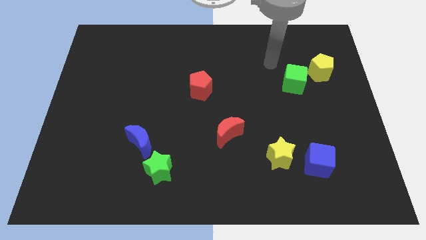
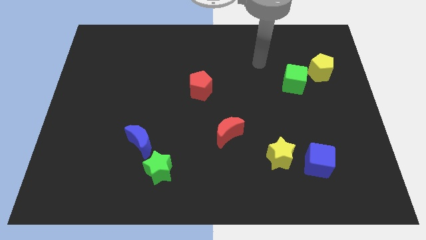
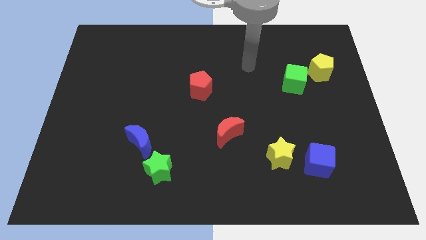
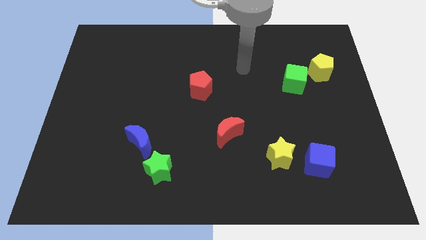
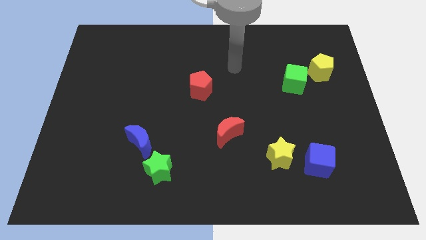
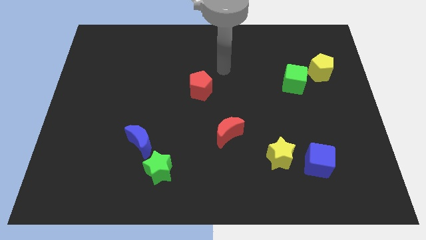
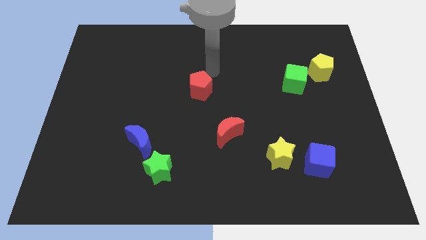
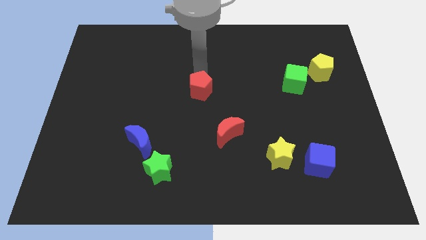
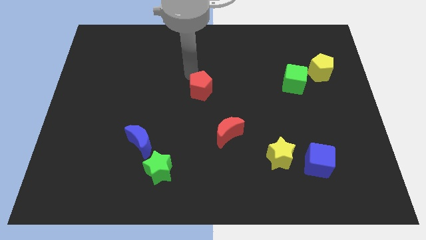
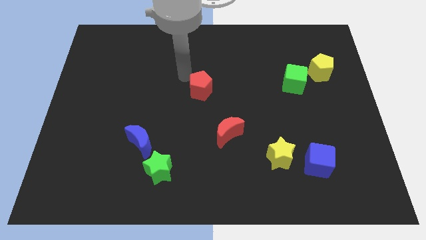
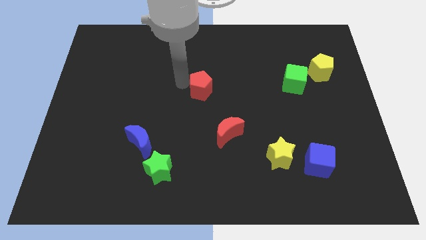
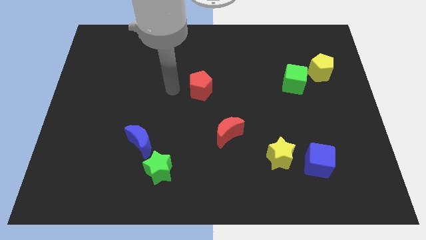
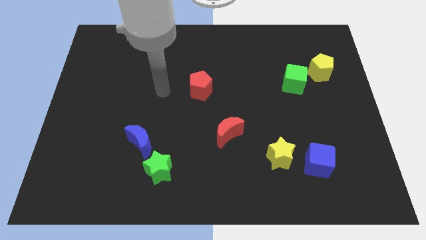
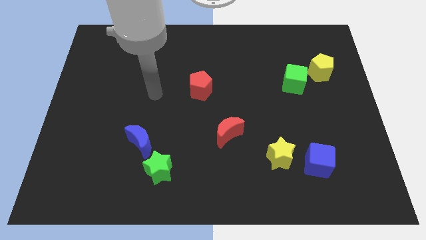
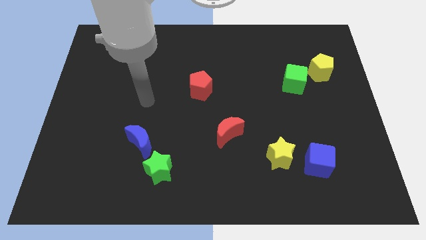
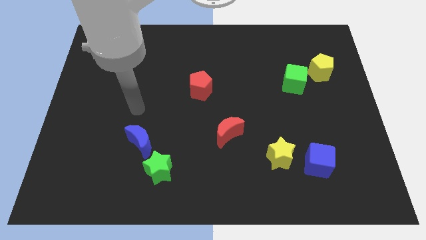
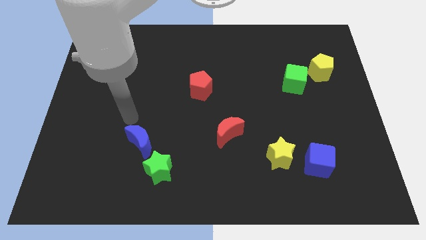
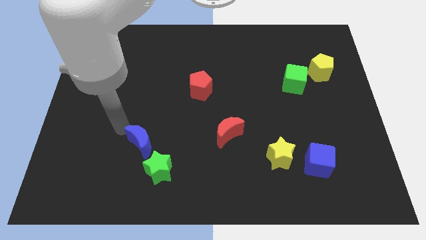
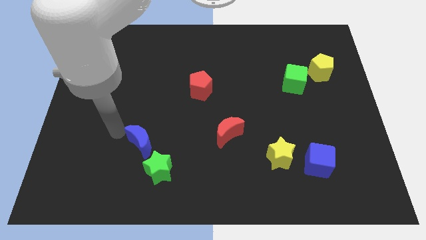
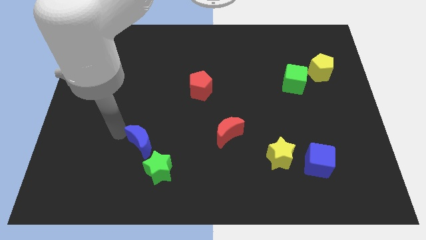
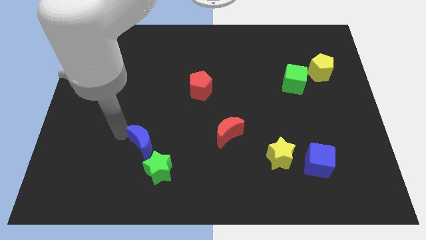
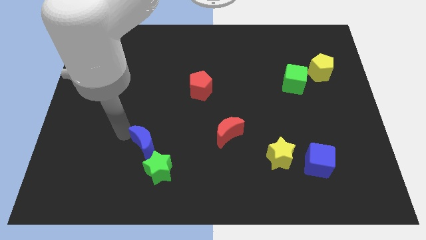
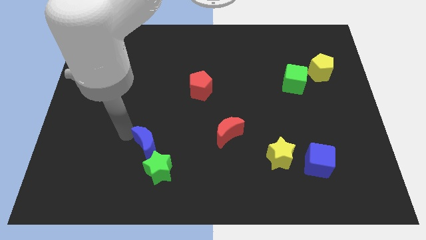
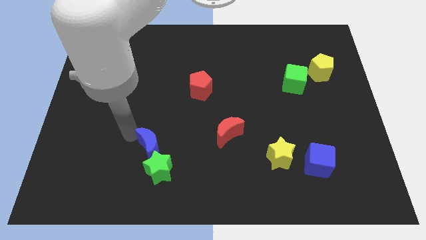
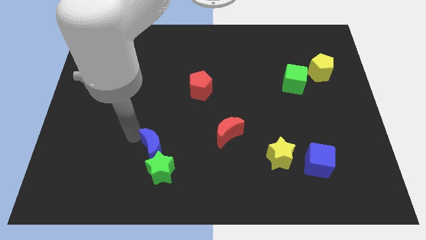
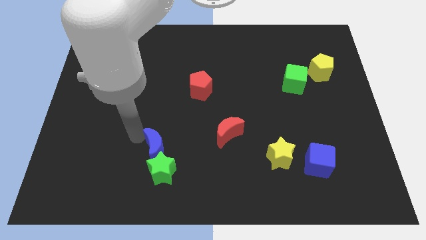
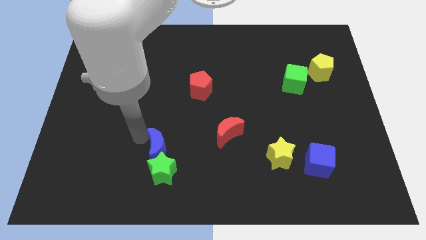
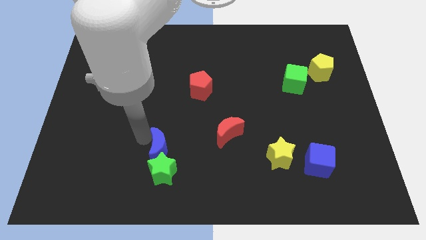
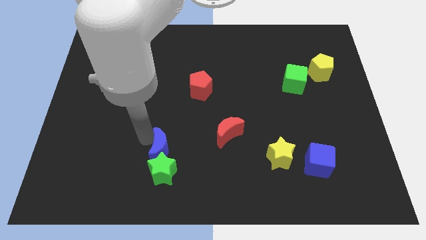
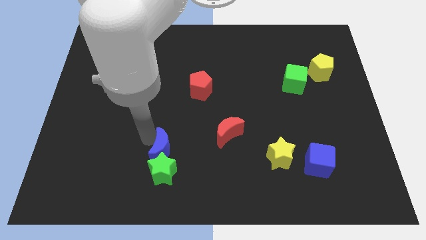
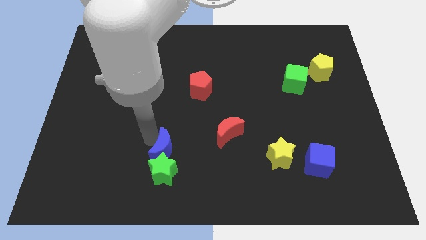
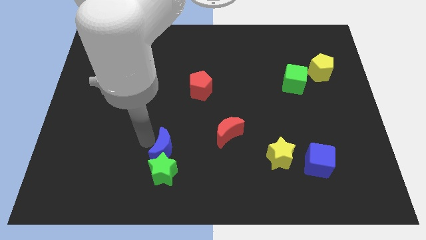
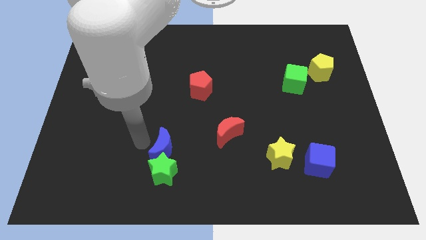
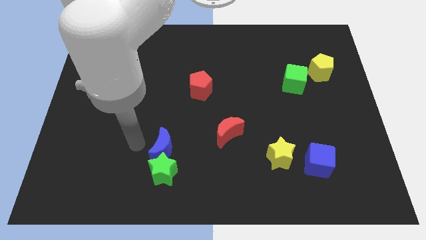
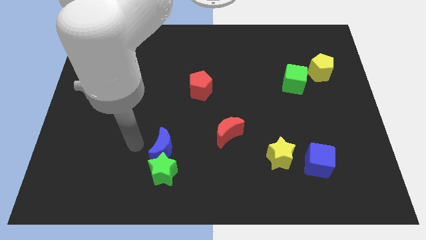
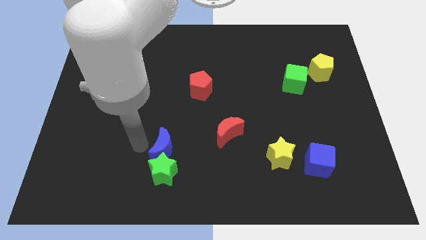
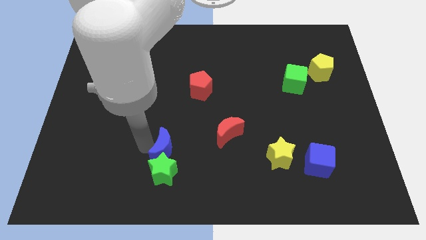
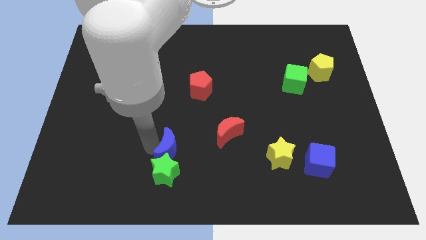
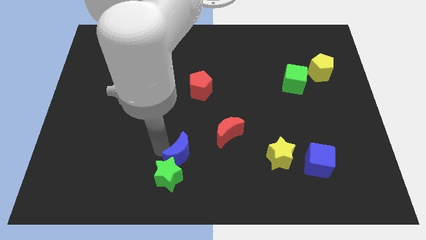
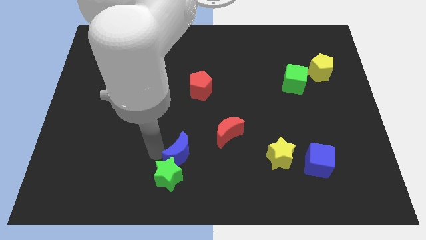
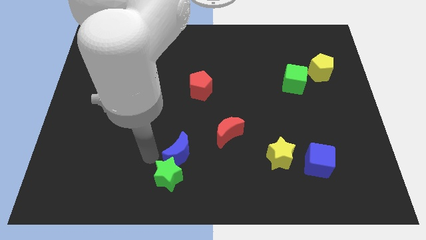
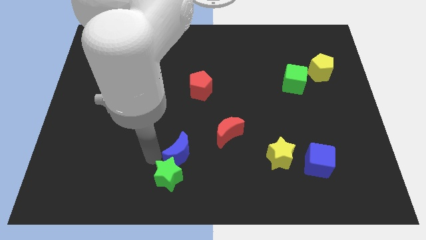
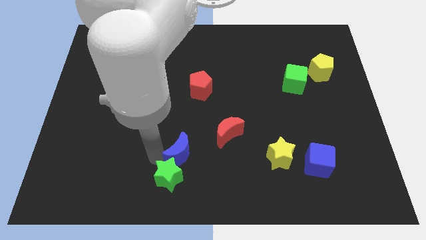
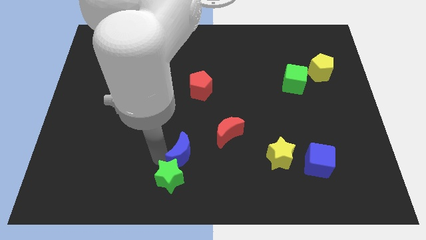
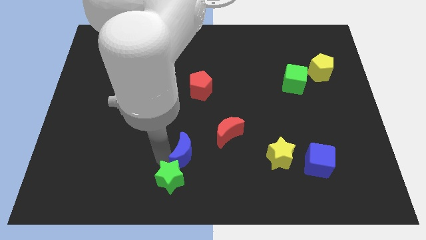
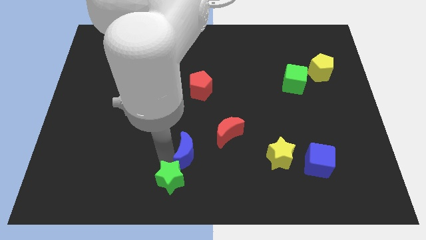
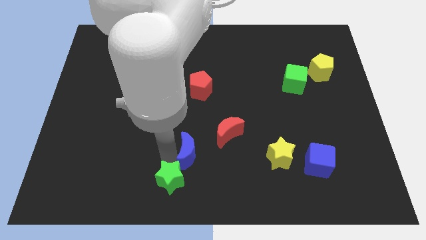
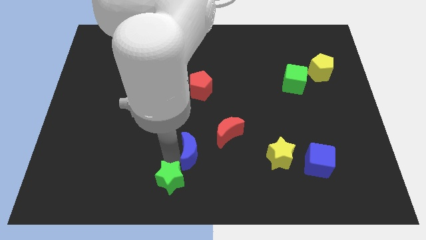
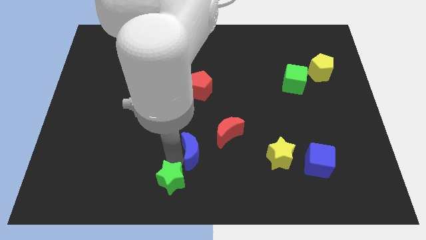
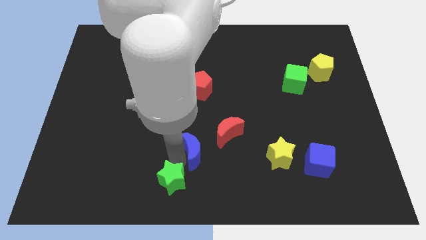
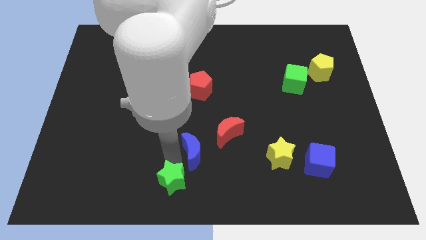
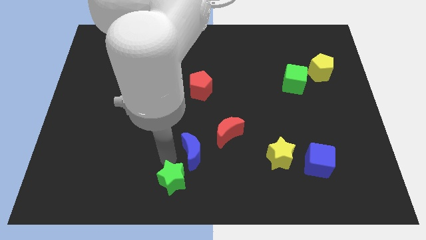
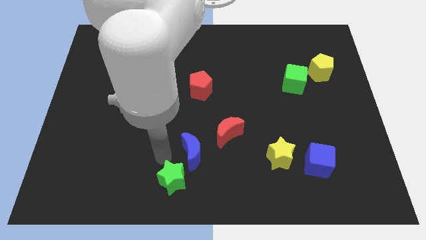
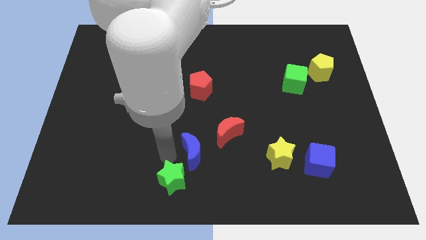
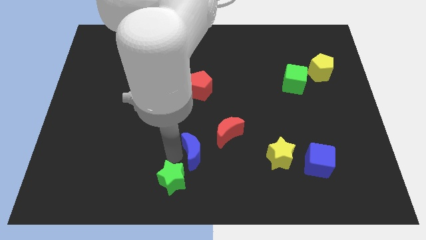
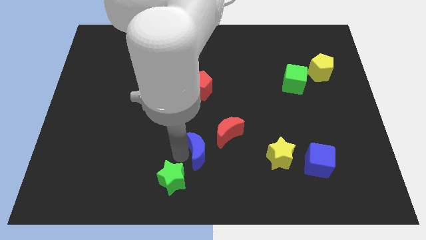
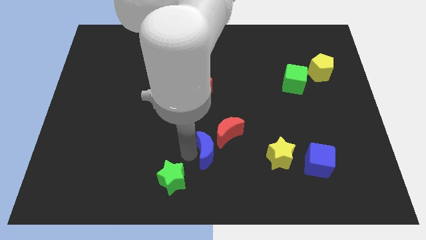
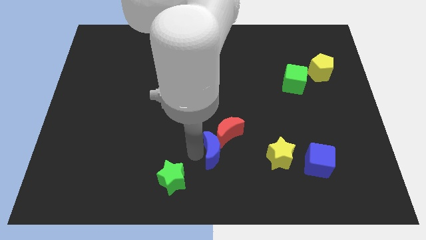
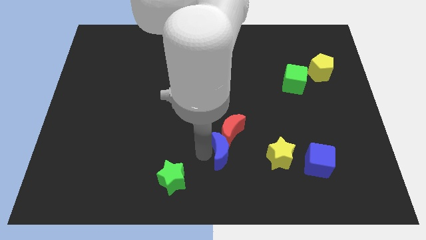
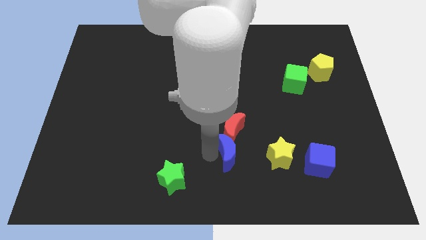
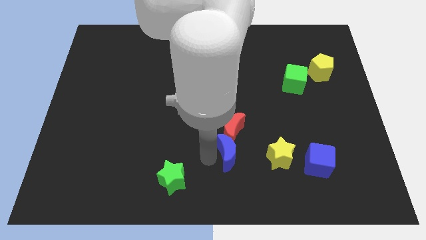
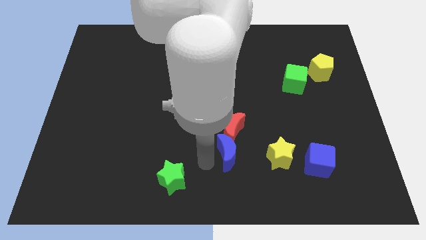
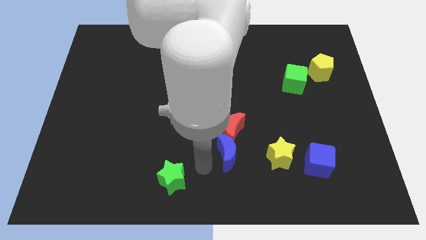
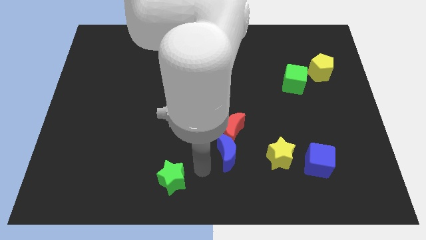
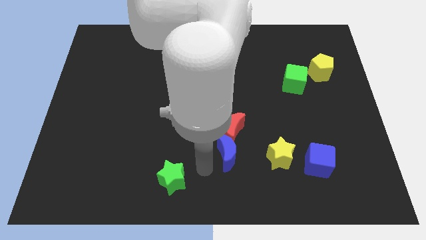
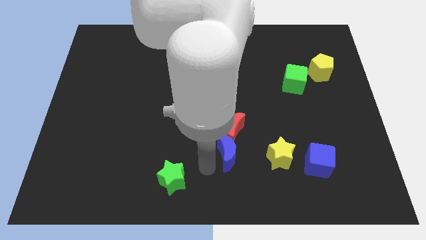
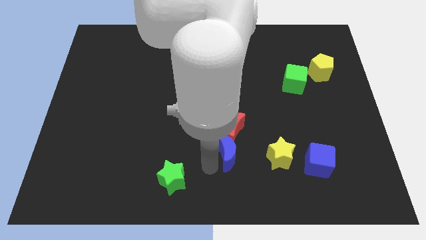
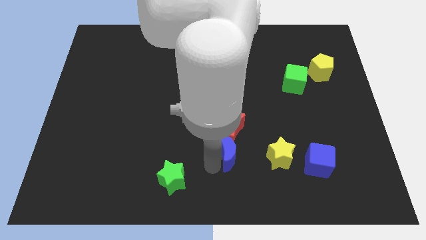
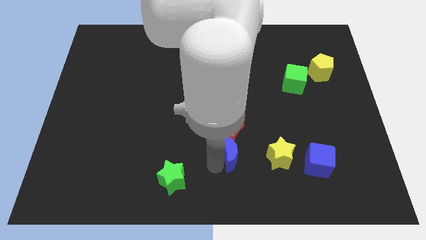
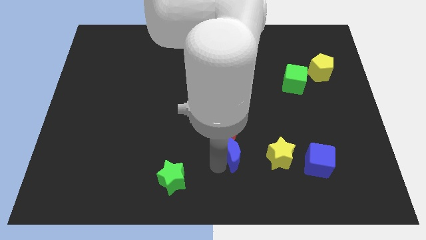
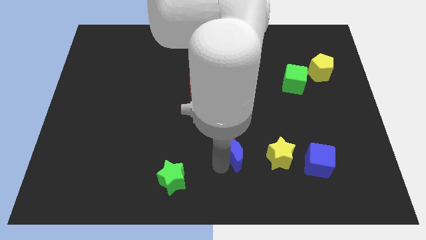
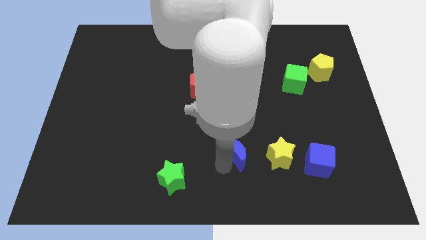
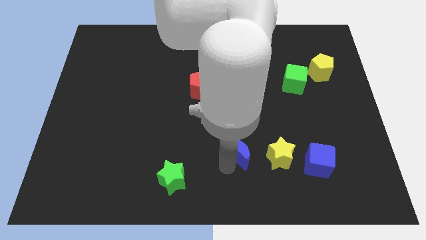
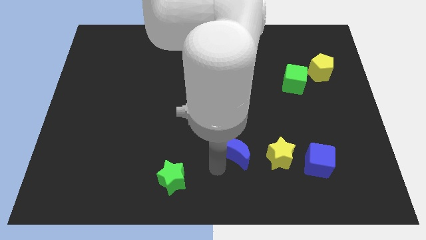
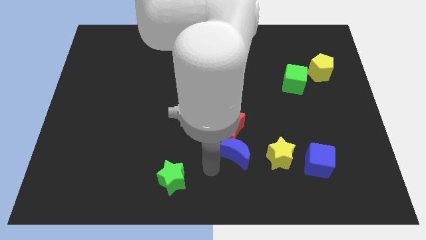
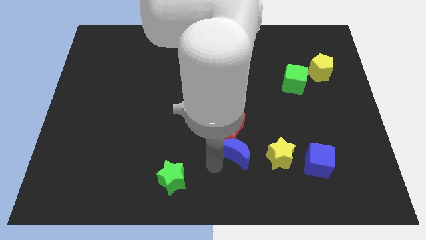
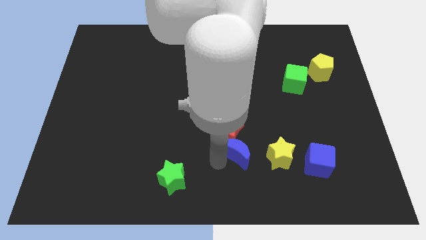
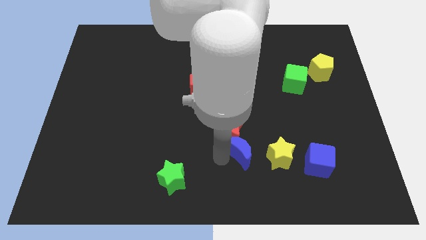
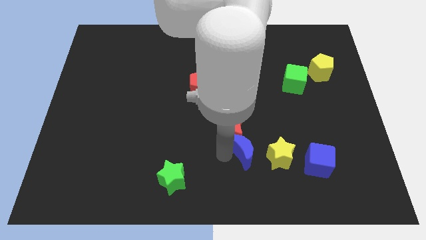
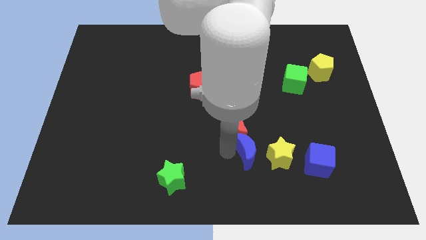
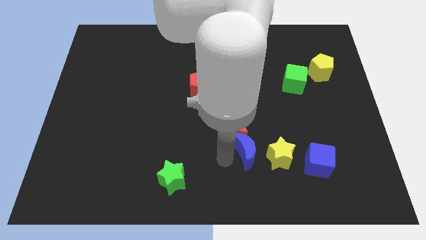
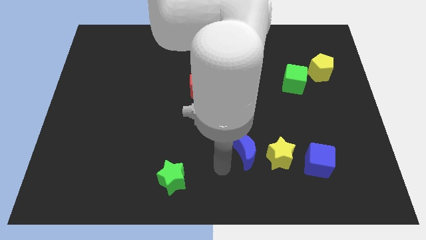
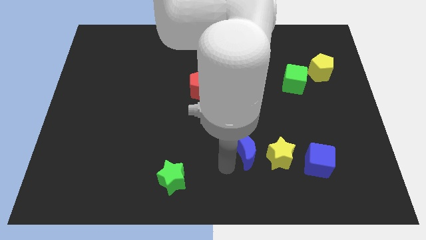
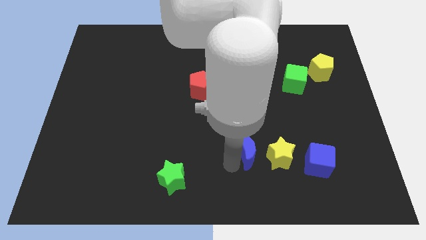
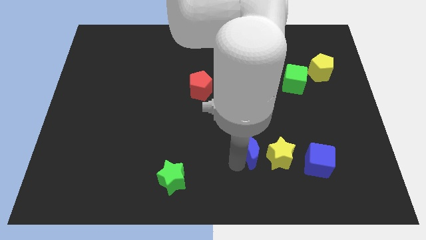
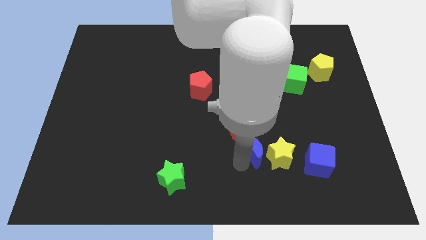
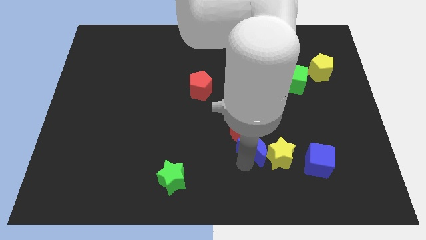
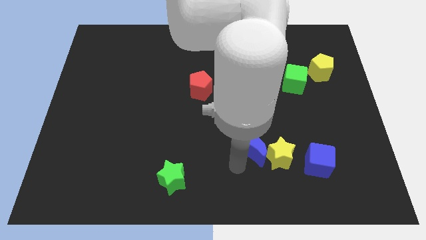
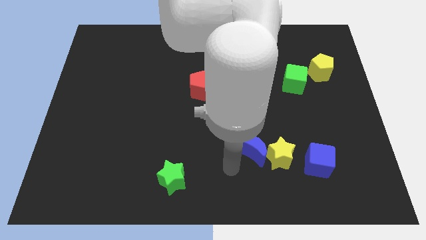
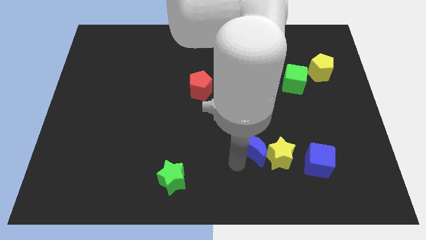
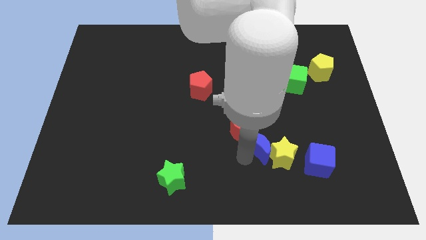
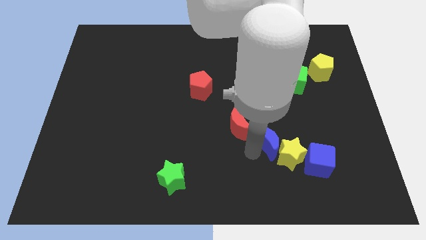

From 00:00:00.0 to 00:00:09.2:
push the blue moon just right of the red moon
